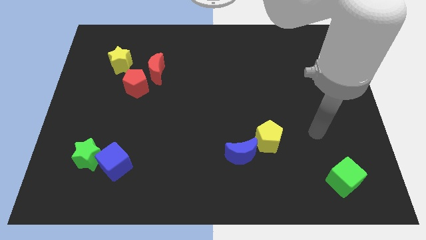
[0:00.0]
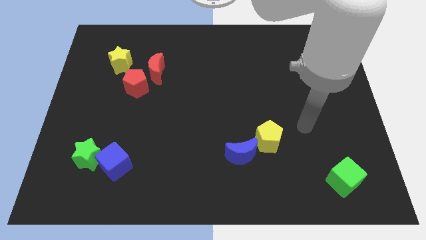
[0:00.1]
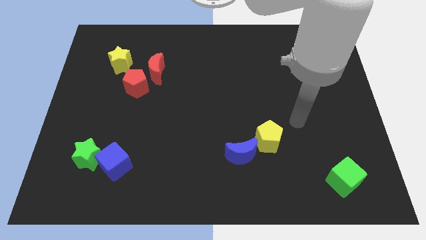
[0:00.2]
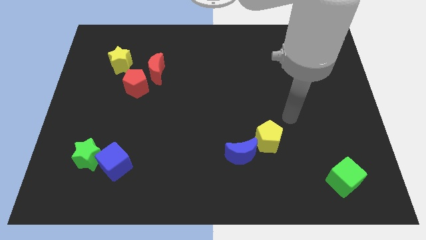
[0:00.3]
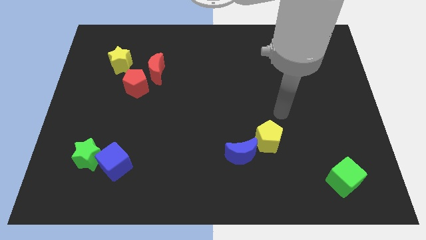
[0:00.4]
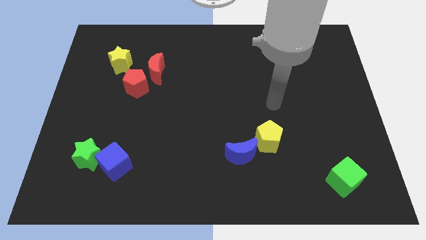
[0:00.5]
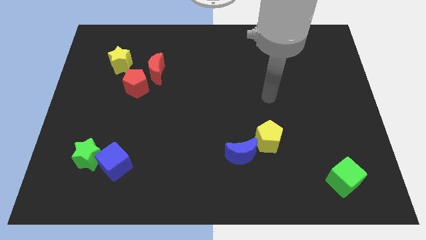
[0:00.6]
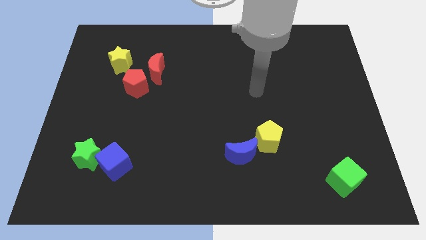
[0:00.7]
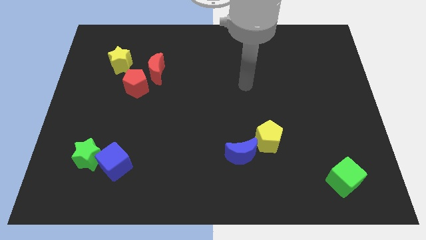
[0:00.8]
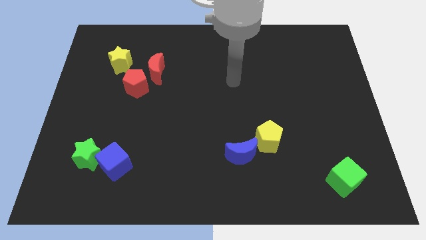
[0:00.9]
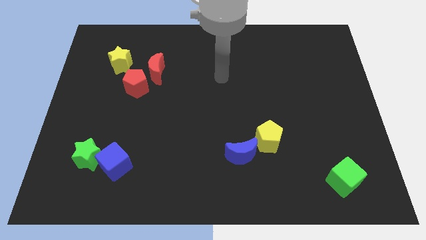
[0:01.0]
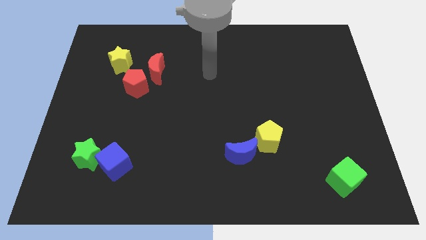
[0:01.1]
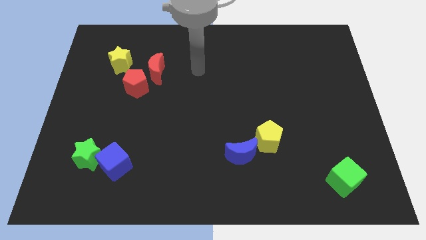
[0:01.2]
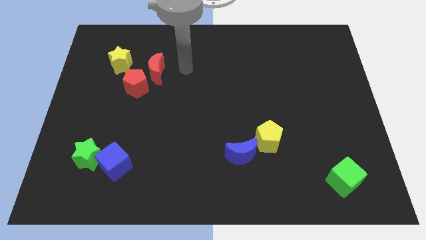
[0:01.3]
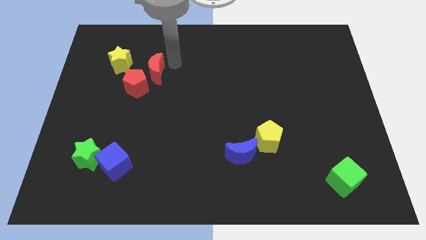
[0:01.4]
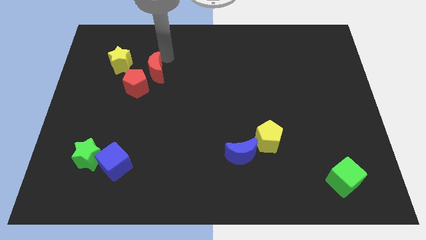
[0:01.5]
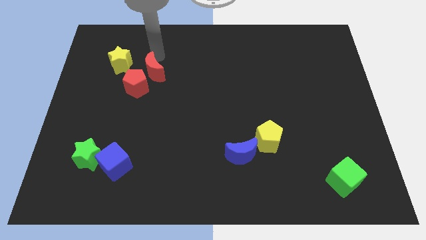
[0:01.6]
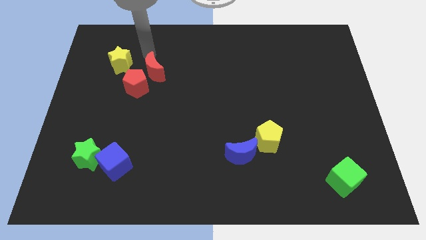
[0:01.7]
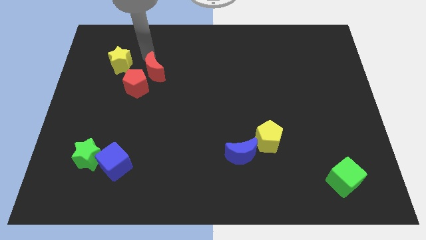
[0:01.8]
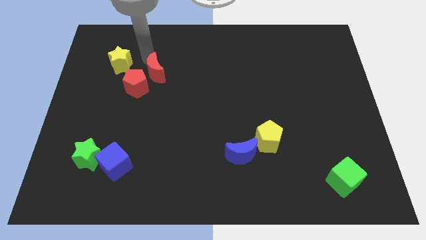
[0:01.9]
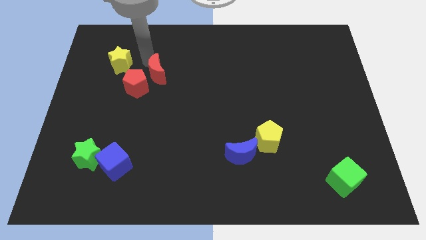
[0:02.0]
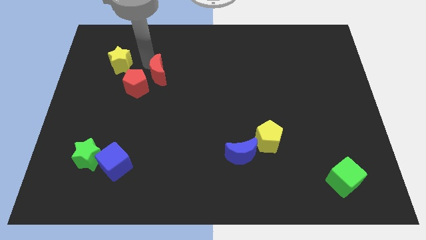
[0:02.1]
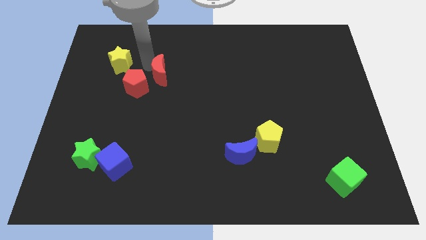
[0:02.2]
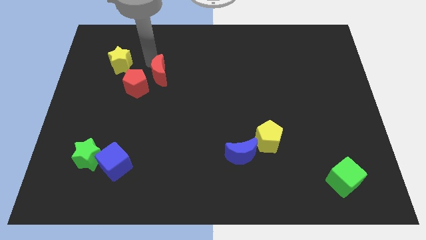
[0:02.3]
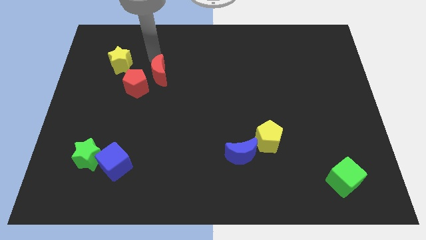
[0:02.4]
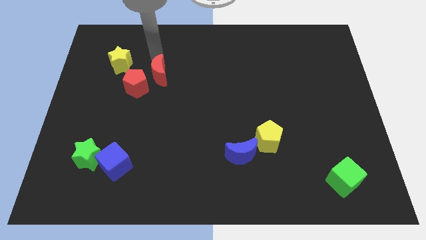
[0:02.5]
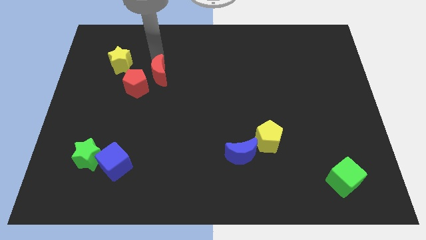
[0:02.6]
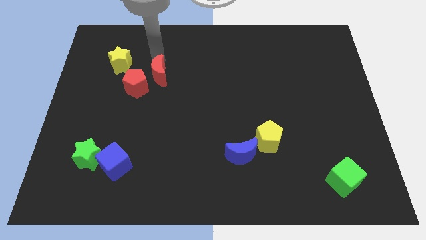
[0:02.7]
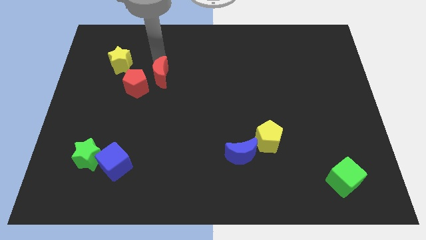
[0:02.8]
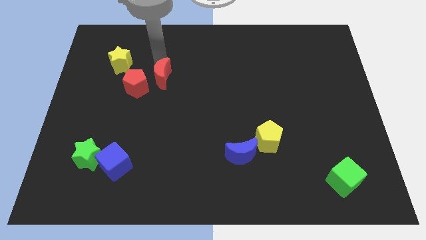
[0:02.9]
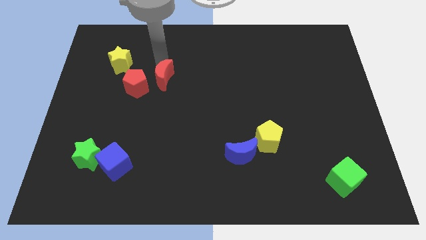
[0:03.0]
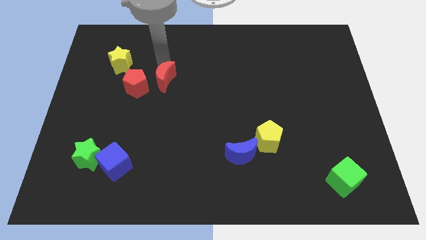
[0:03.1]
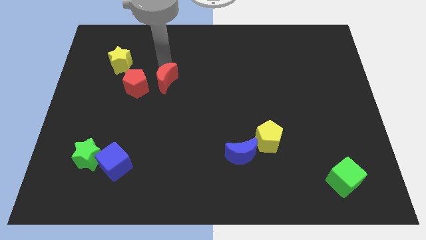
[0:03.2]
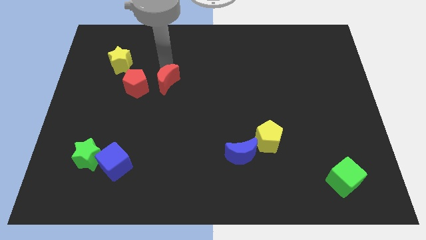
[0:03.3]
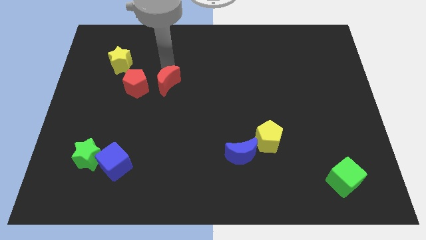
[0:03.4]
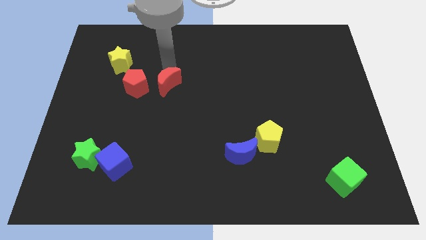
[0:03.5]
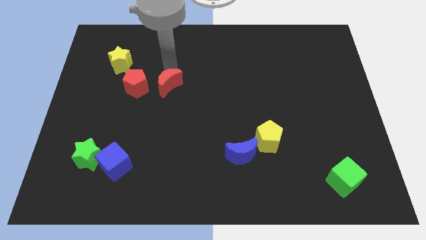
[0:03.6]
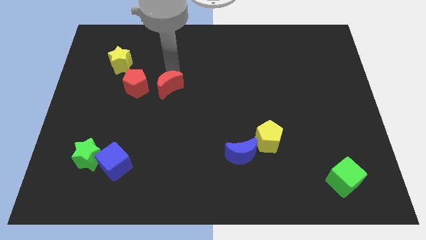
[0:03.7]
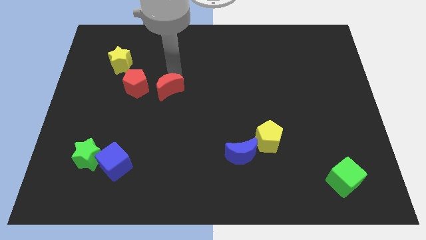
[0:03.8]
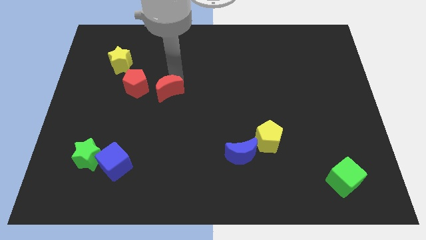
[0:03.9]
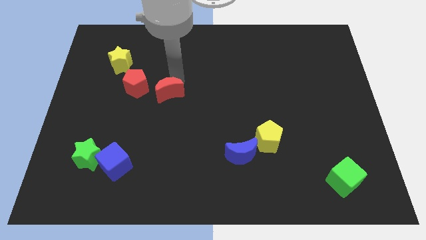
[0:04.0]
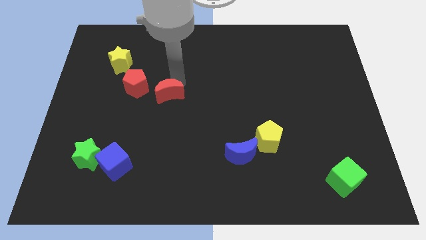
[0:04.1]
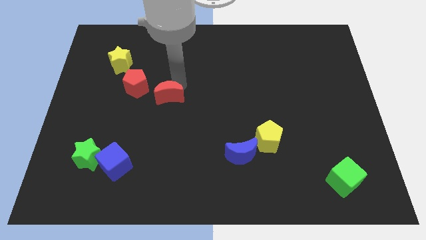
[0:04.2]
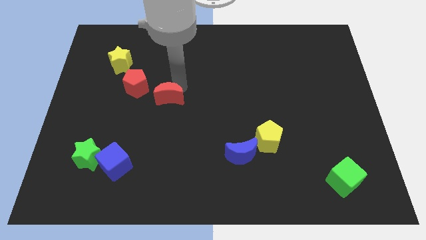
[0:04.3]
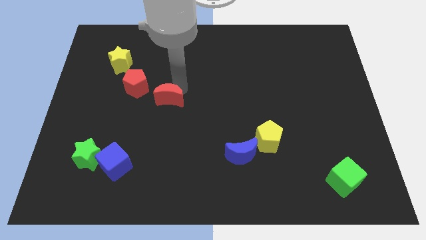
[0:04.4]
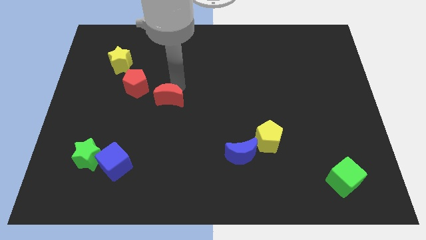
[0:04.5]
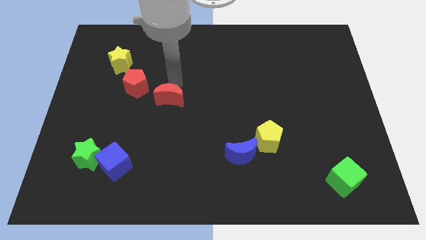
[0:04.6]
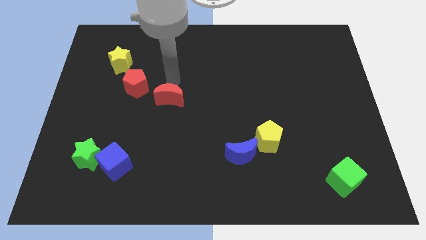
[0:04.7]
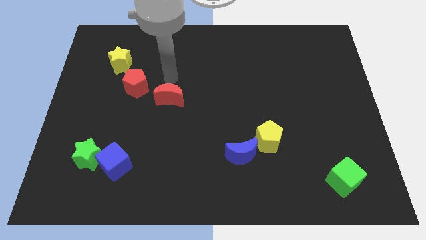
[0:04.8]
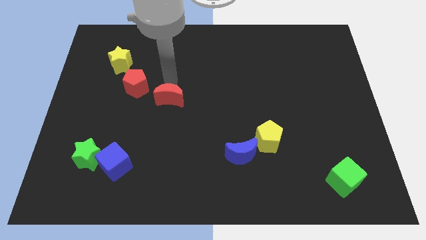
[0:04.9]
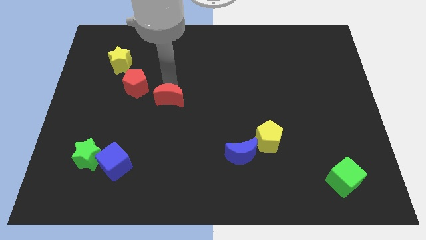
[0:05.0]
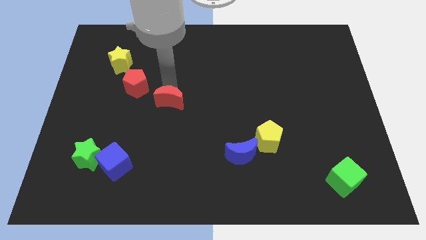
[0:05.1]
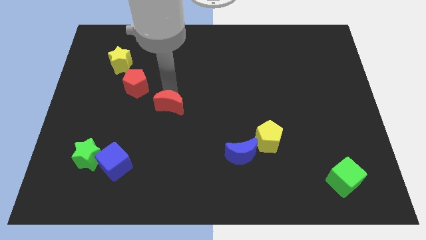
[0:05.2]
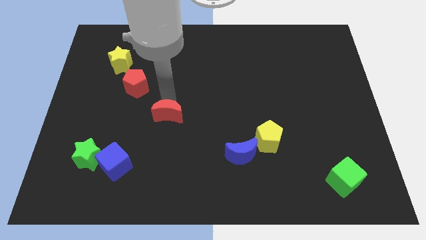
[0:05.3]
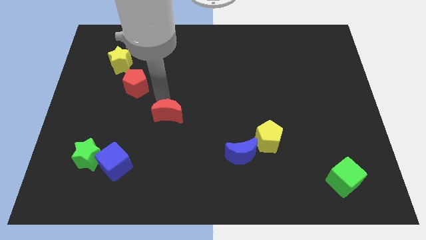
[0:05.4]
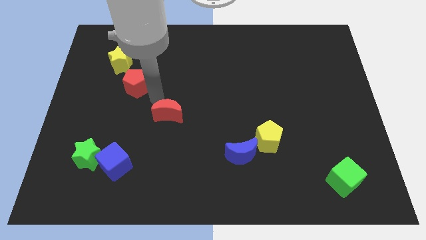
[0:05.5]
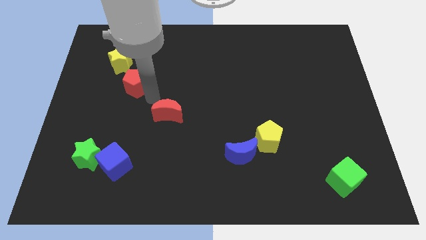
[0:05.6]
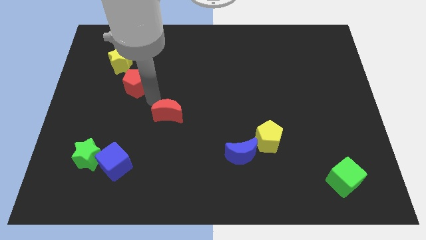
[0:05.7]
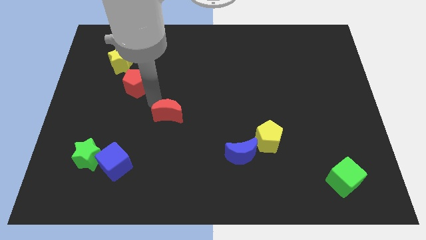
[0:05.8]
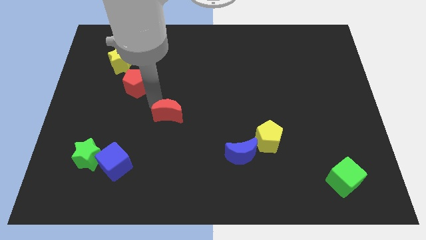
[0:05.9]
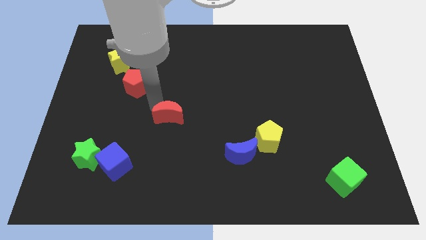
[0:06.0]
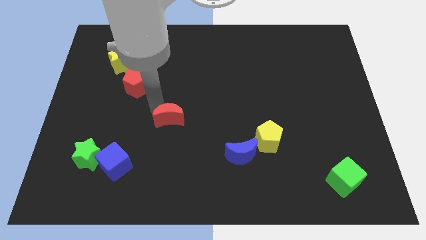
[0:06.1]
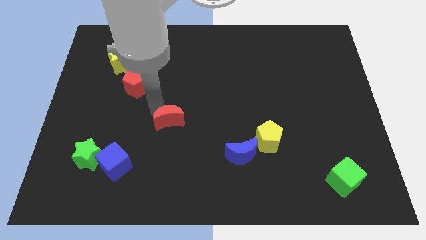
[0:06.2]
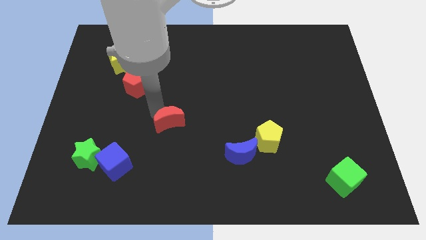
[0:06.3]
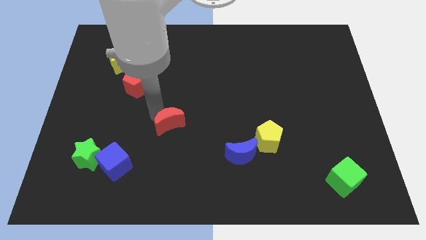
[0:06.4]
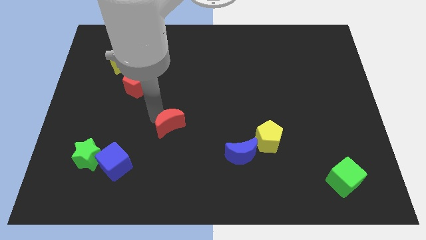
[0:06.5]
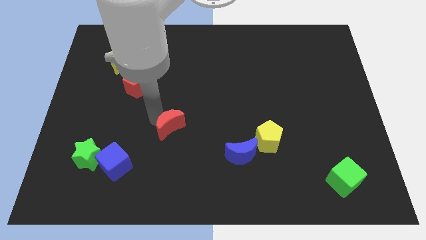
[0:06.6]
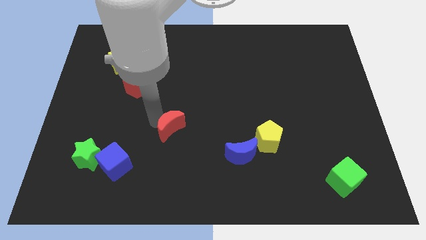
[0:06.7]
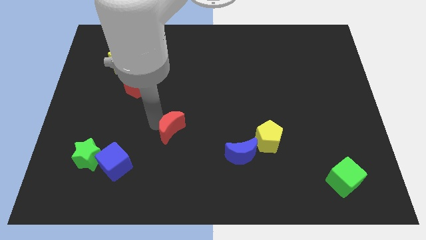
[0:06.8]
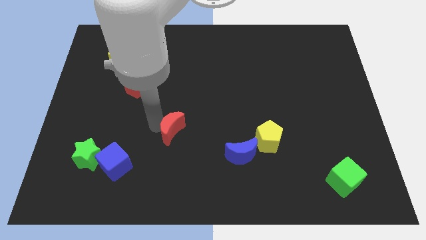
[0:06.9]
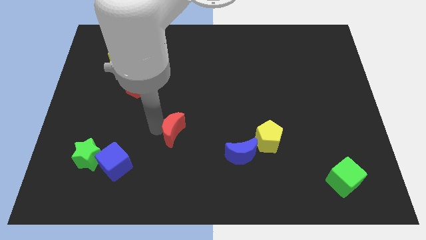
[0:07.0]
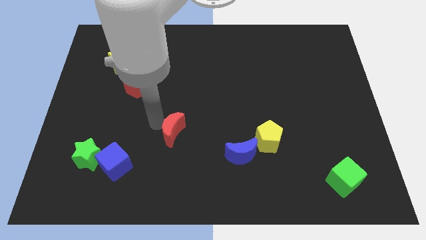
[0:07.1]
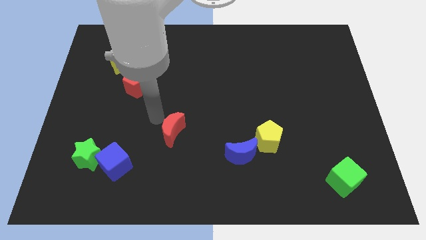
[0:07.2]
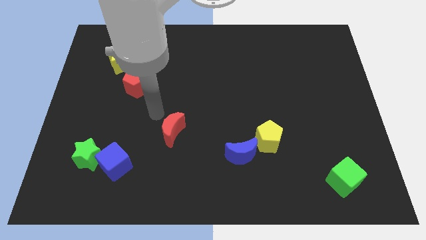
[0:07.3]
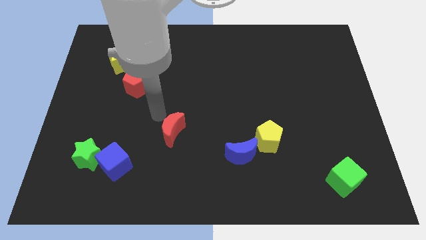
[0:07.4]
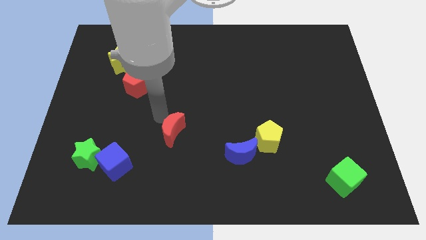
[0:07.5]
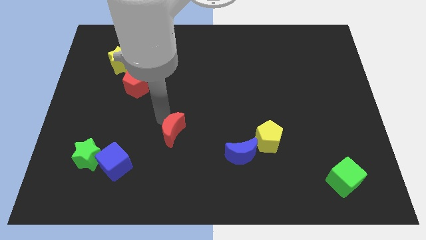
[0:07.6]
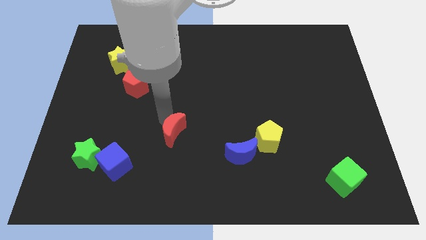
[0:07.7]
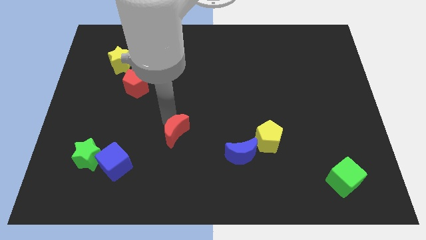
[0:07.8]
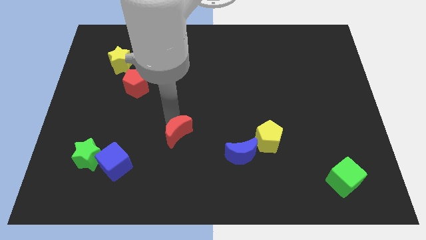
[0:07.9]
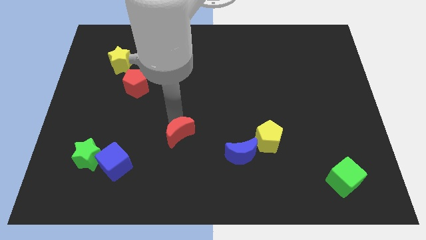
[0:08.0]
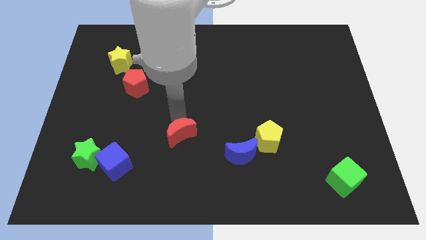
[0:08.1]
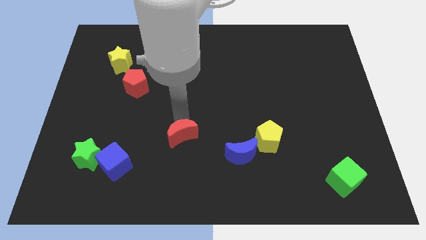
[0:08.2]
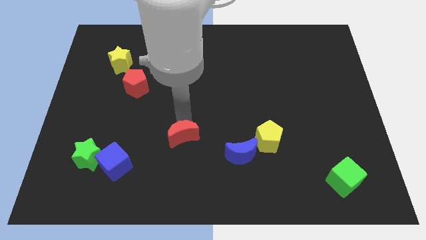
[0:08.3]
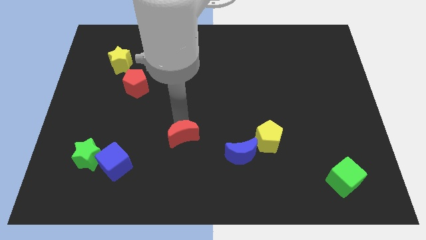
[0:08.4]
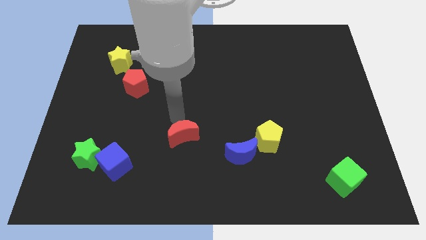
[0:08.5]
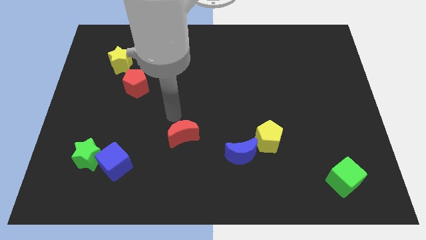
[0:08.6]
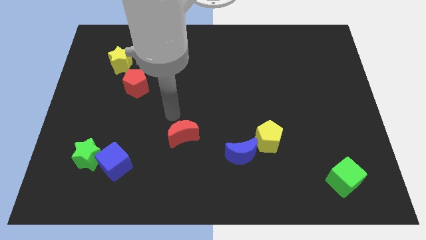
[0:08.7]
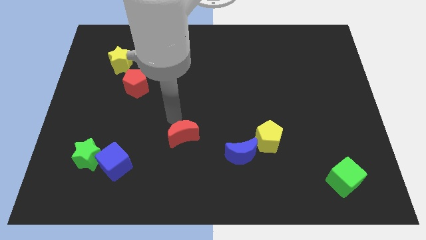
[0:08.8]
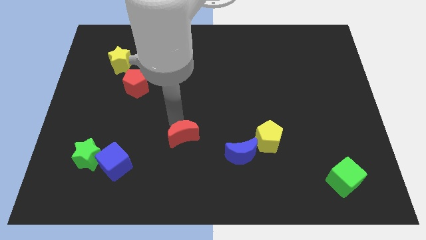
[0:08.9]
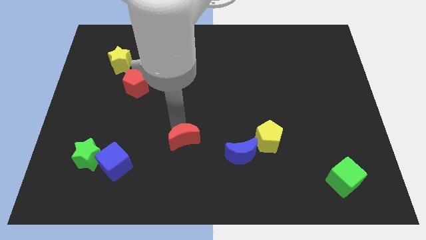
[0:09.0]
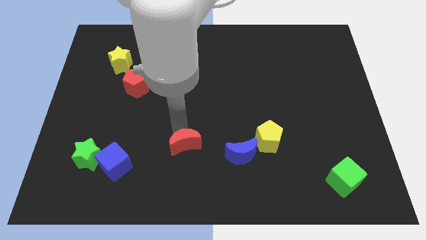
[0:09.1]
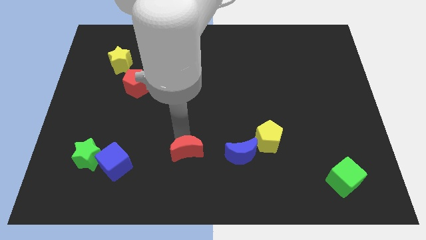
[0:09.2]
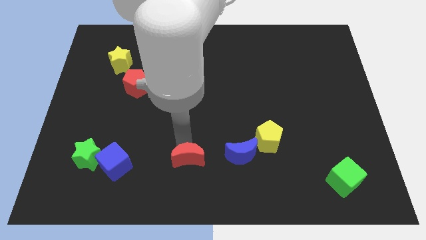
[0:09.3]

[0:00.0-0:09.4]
put the red moon to the bottom side
